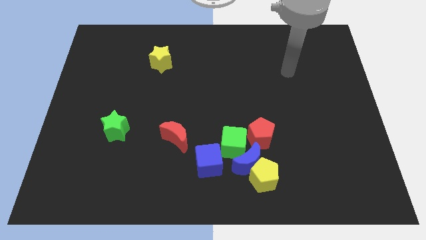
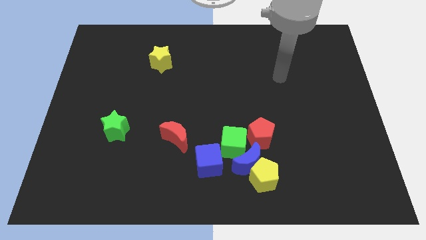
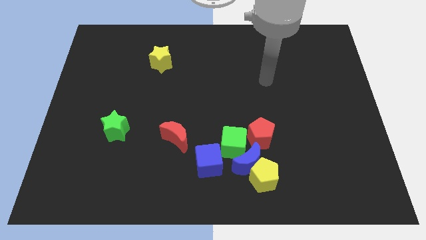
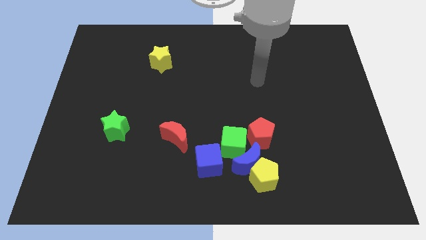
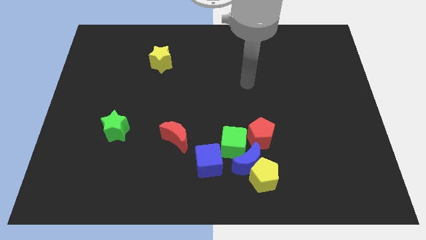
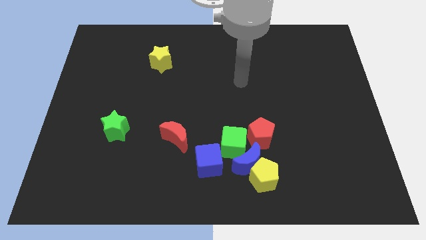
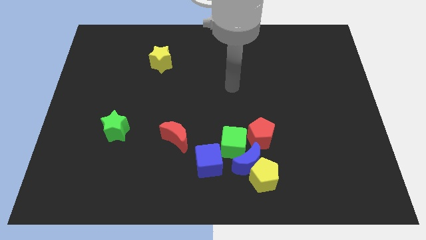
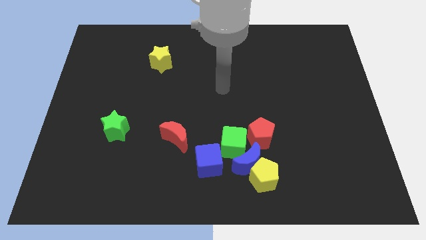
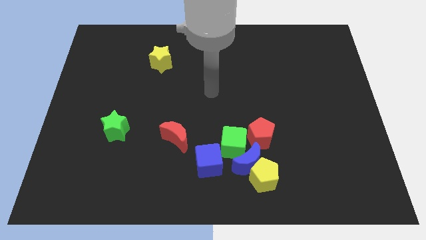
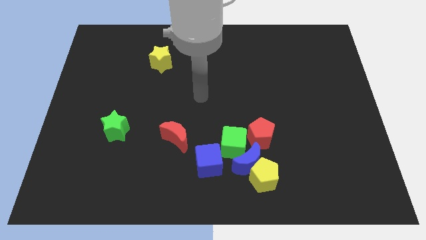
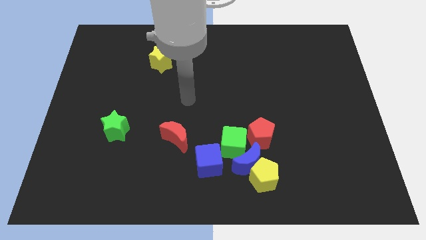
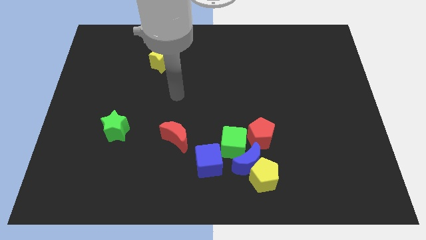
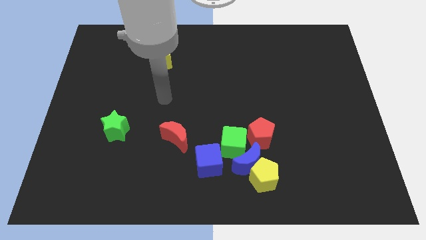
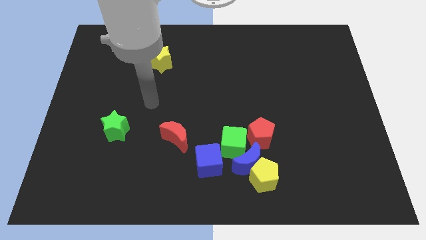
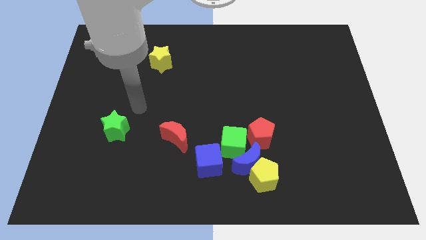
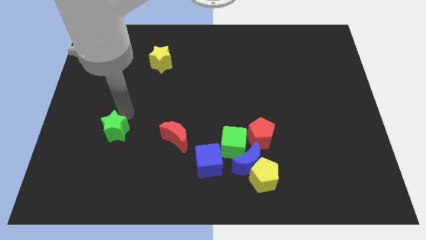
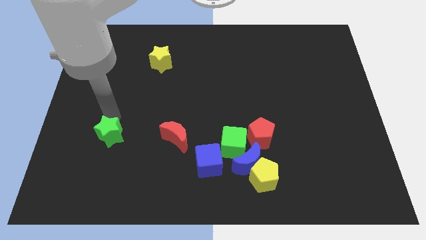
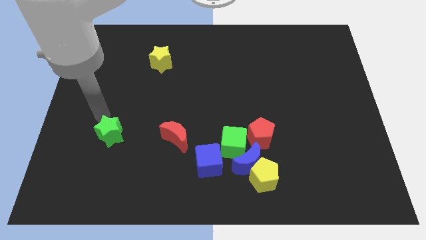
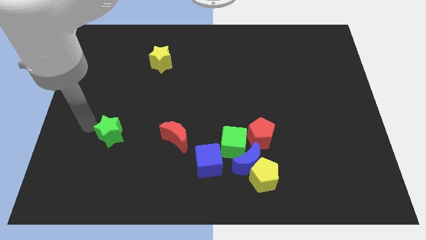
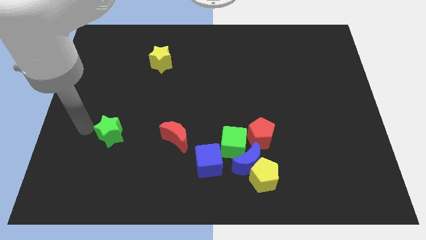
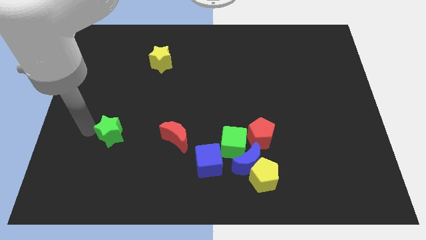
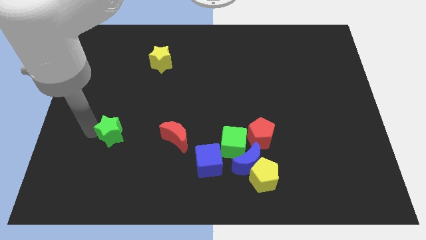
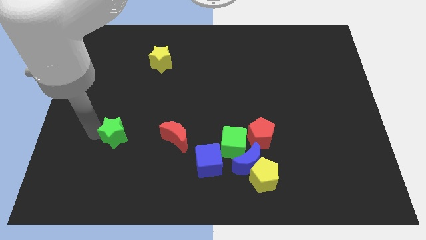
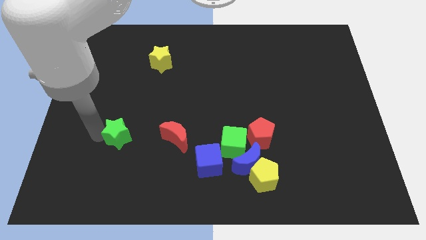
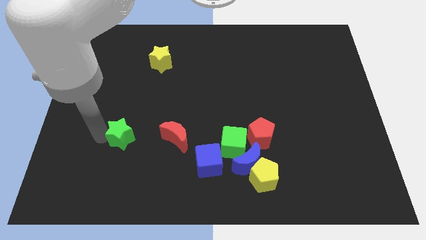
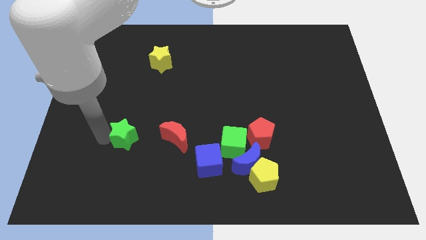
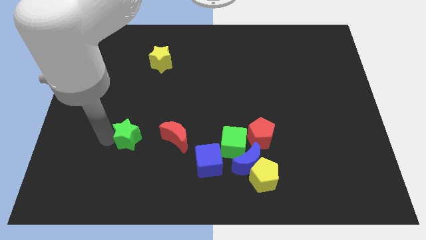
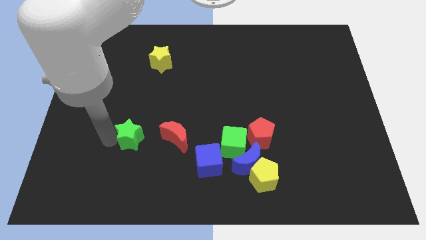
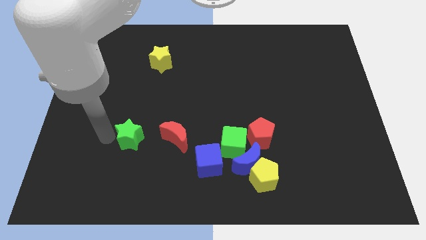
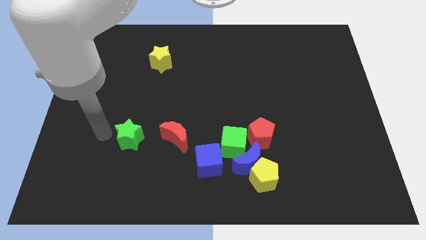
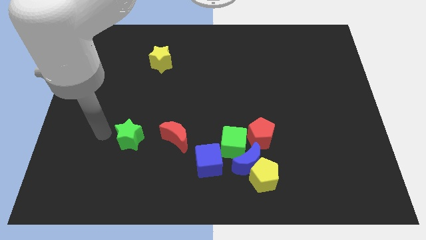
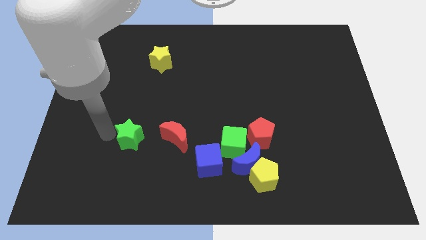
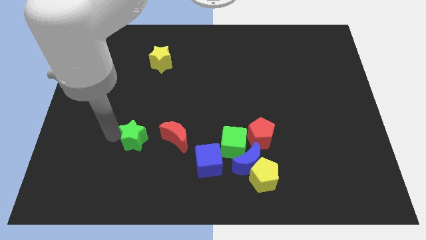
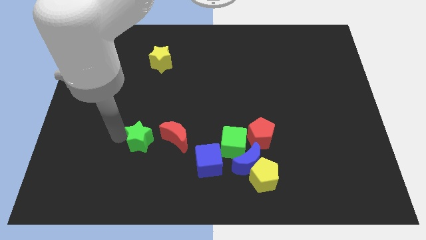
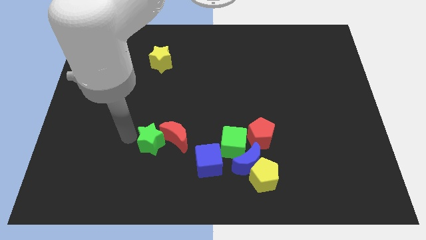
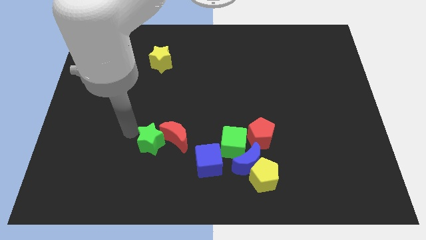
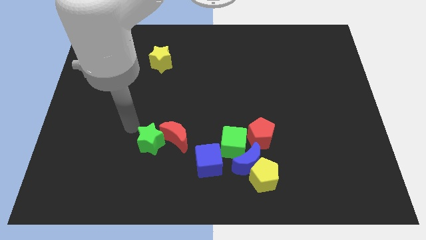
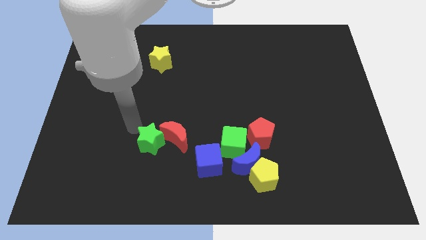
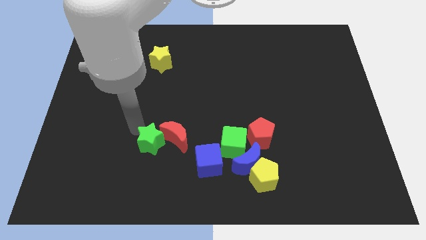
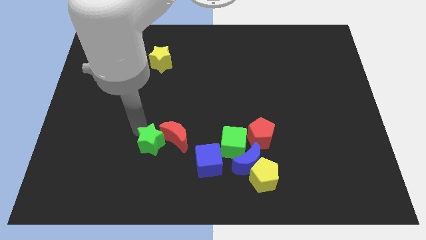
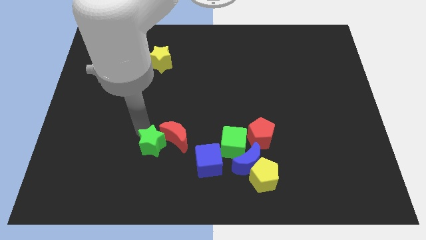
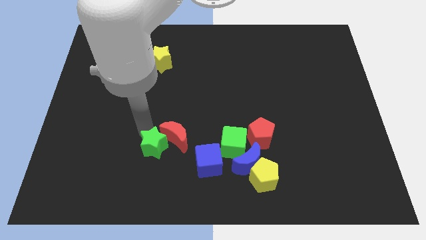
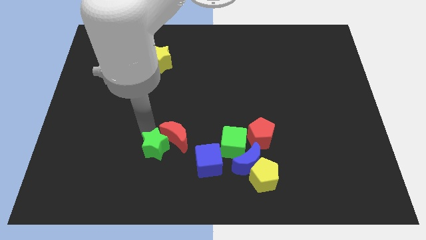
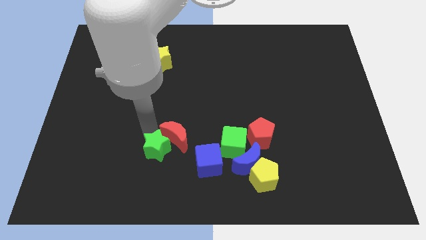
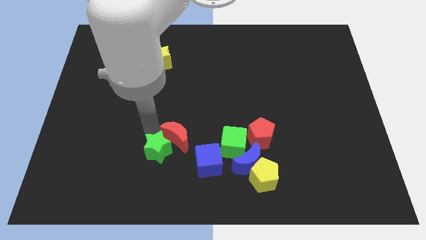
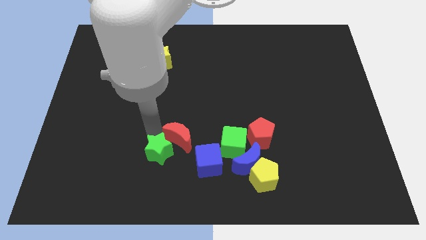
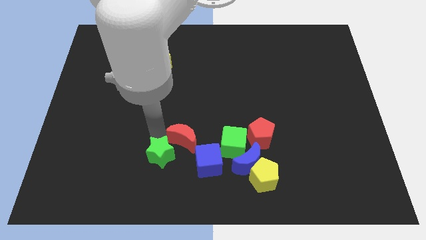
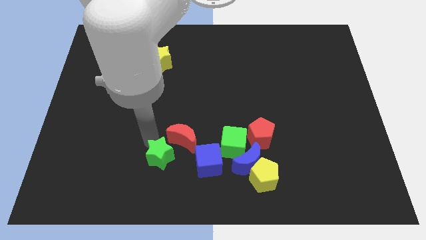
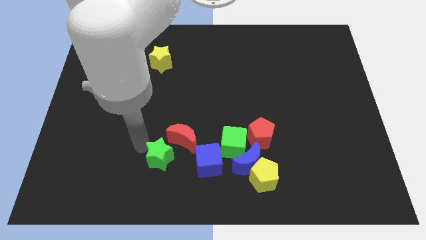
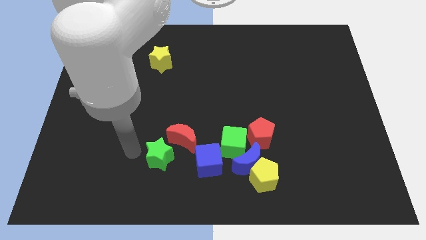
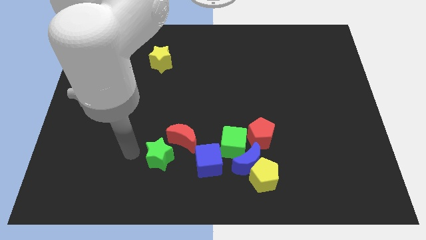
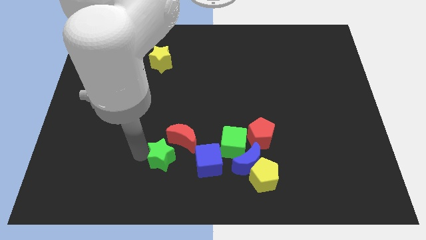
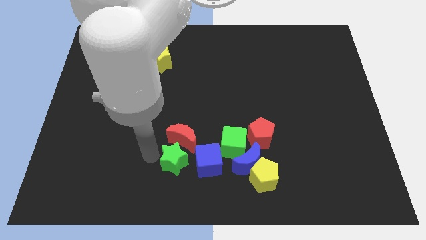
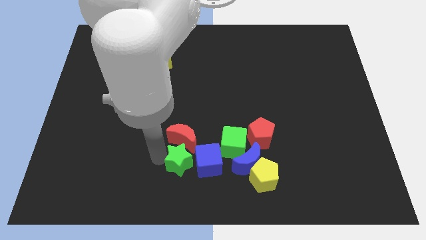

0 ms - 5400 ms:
move the green star next to the blue cube

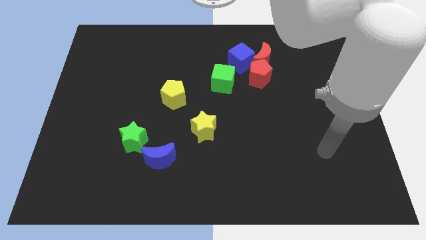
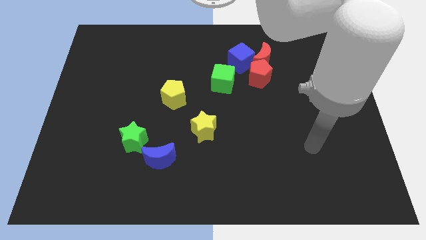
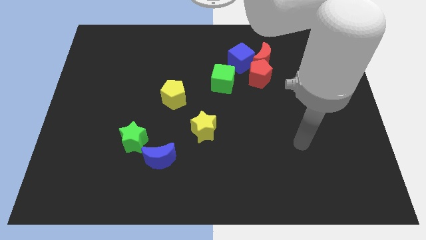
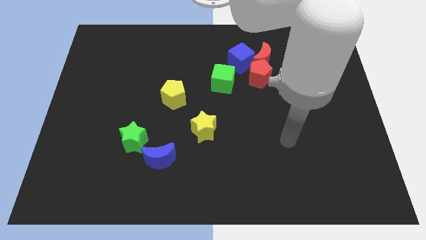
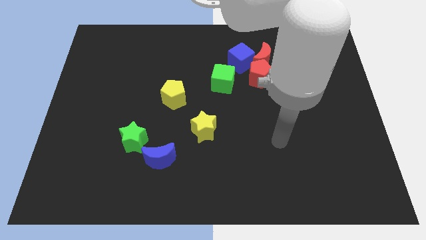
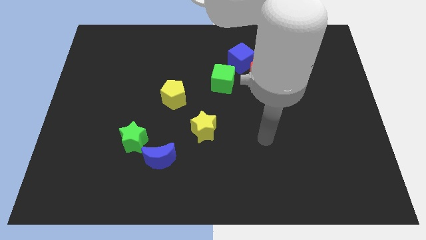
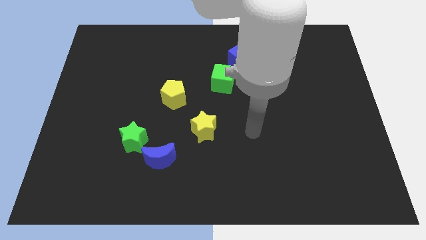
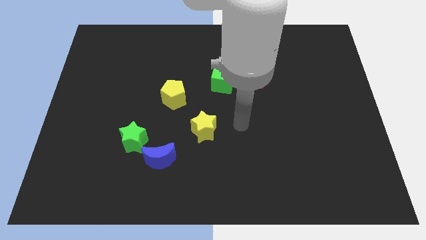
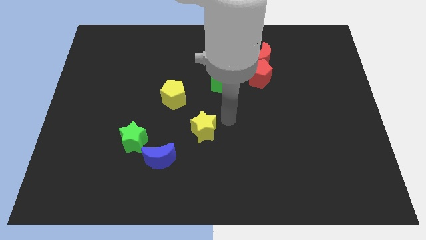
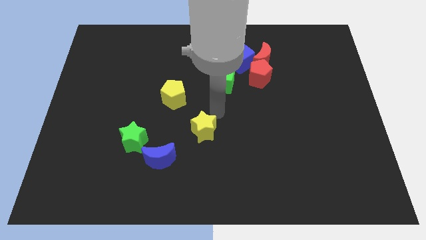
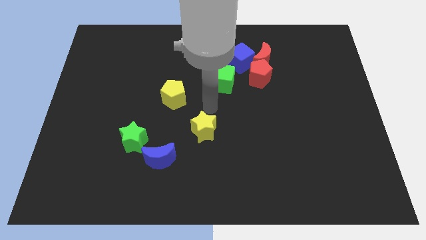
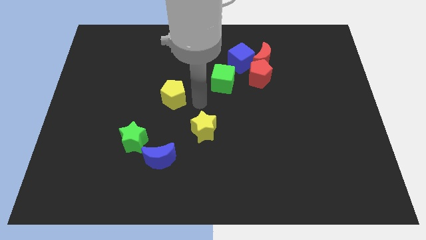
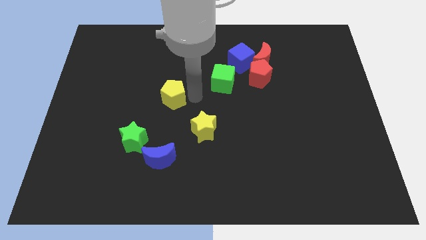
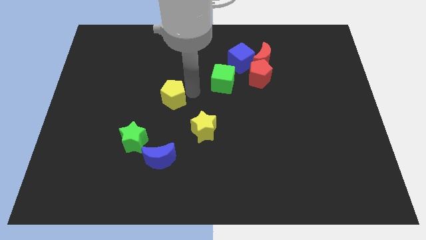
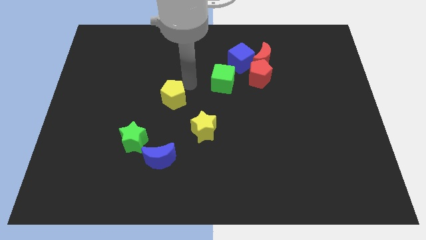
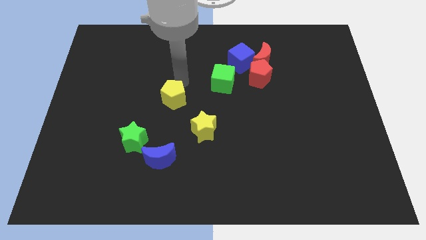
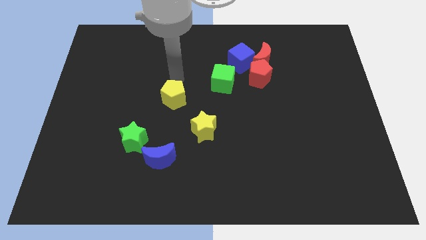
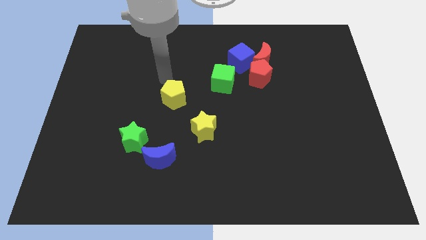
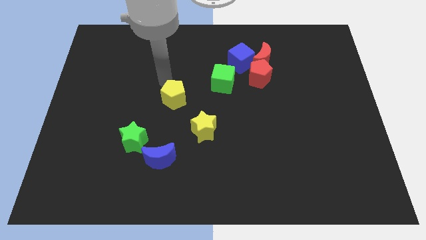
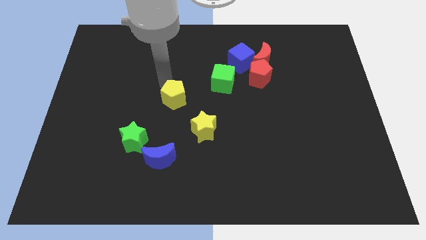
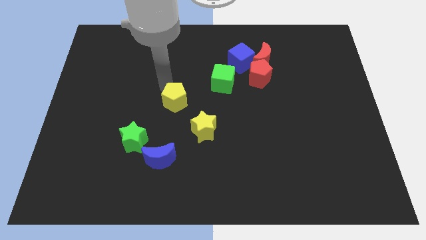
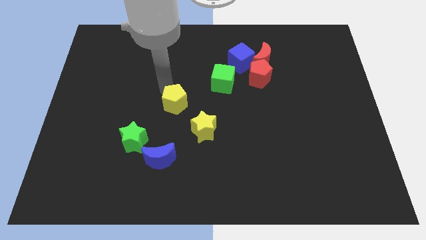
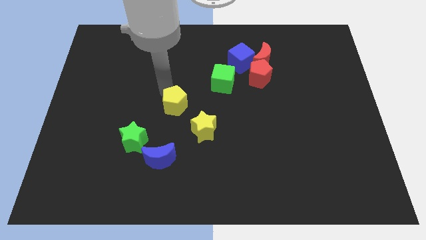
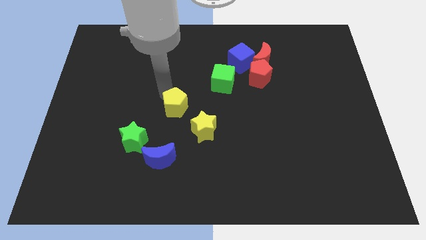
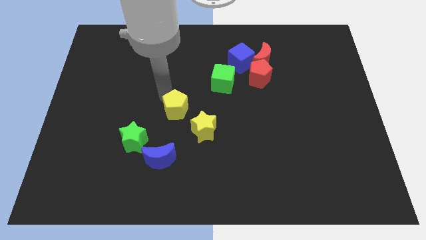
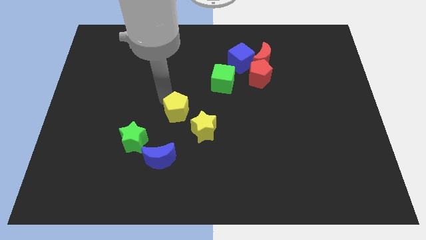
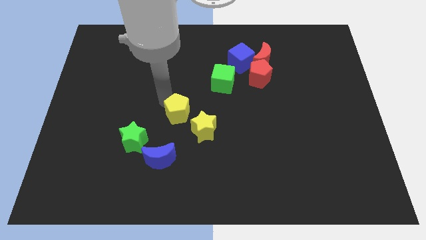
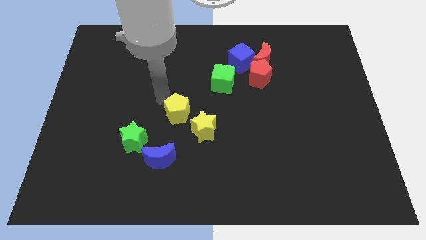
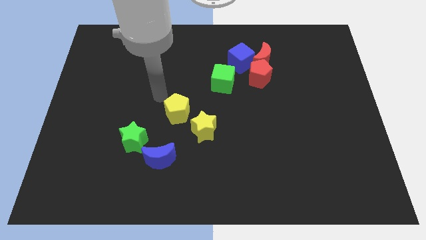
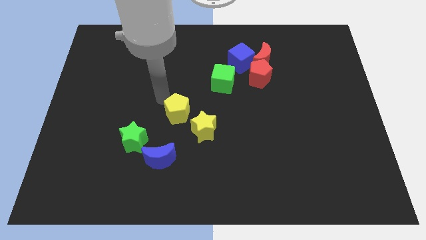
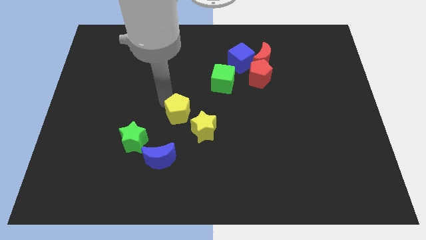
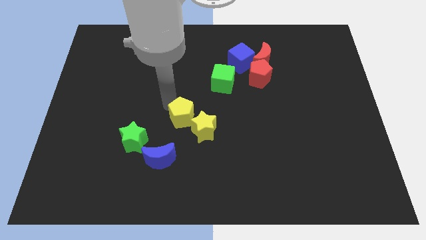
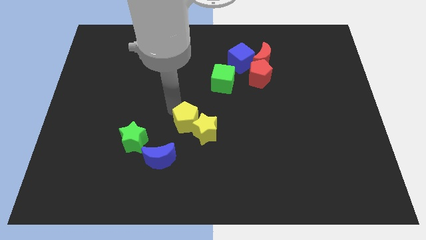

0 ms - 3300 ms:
push the yellow pentagon to the yellow star
